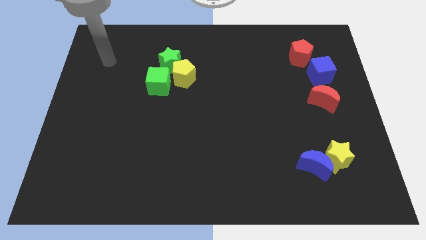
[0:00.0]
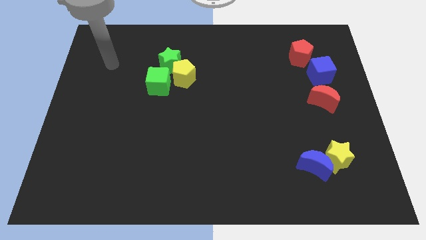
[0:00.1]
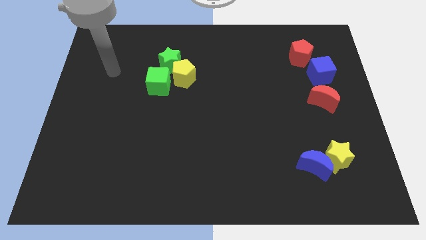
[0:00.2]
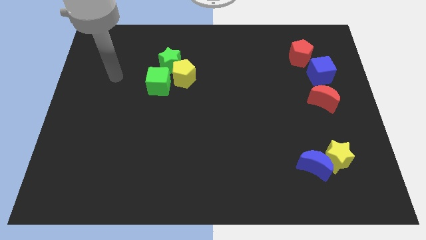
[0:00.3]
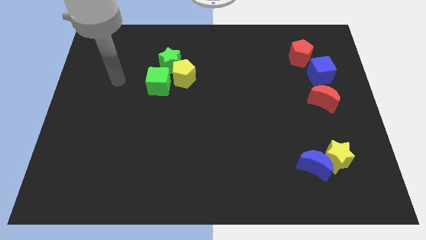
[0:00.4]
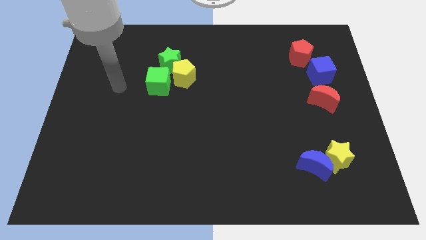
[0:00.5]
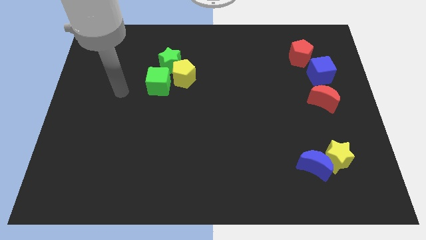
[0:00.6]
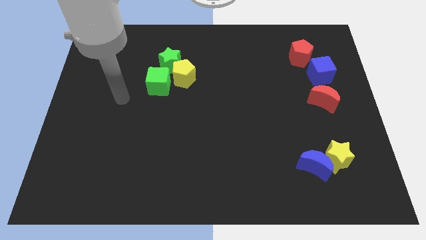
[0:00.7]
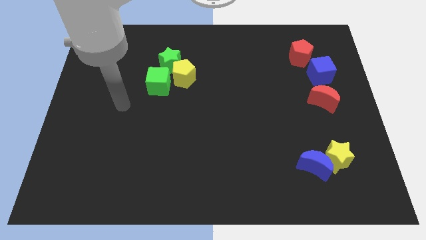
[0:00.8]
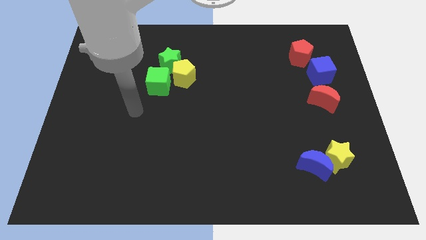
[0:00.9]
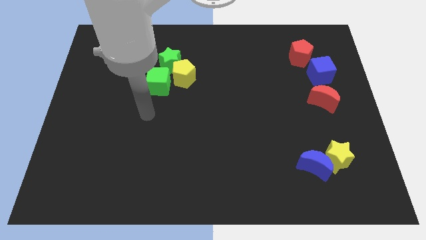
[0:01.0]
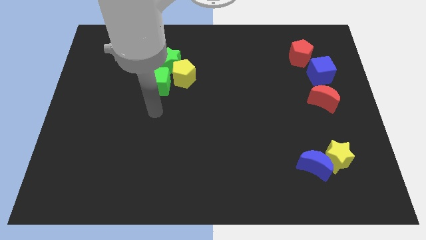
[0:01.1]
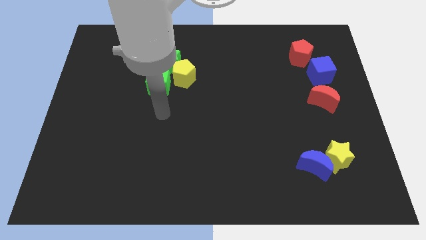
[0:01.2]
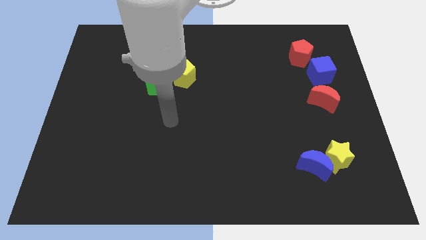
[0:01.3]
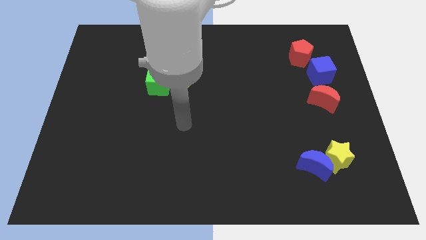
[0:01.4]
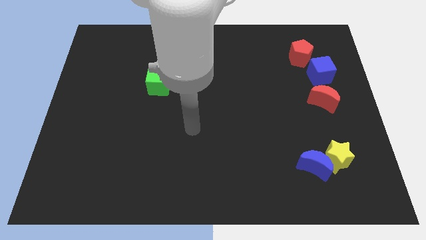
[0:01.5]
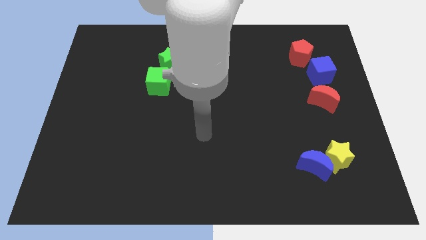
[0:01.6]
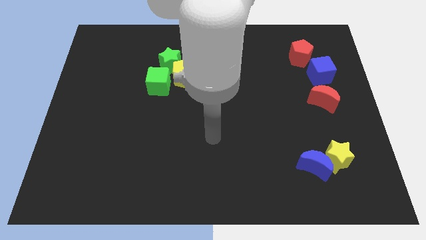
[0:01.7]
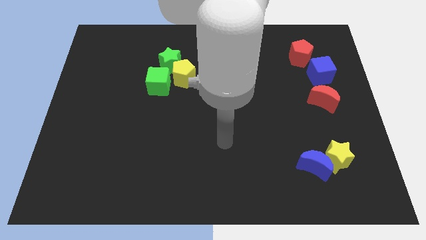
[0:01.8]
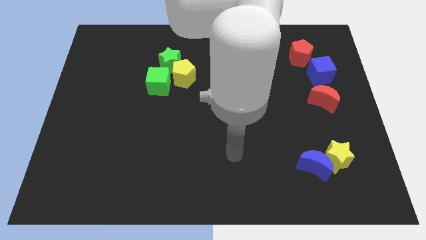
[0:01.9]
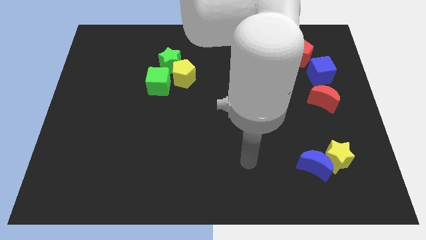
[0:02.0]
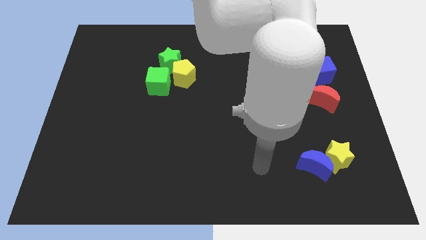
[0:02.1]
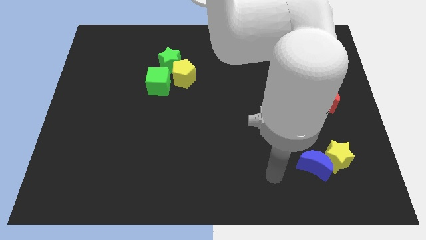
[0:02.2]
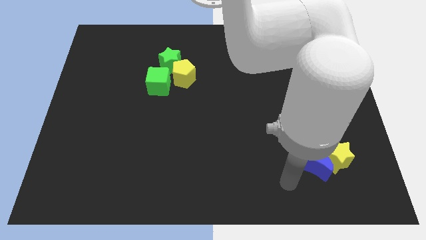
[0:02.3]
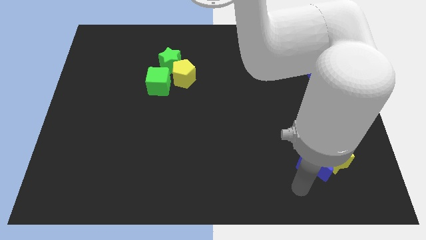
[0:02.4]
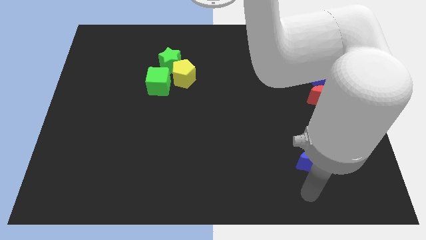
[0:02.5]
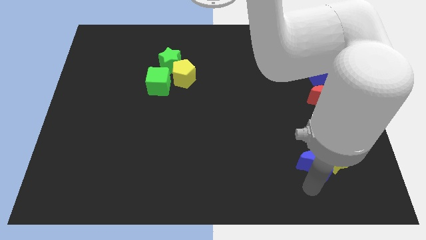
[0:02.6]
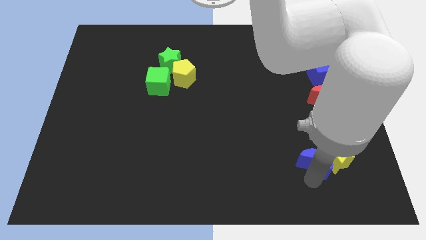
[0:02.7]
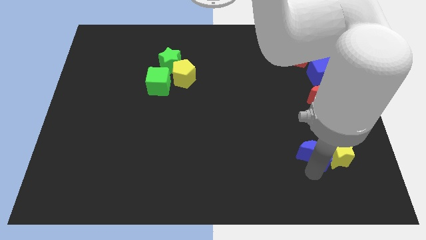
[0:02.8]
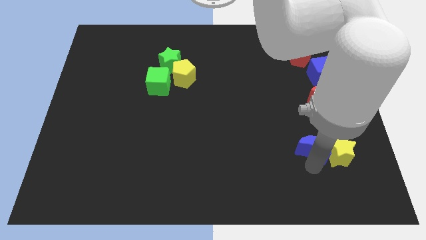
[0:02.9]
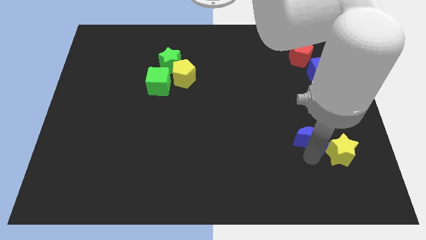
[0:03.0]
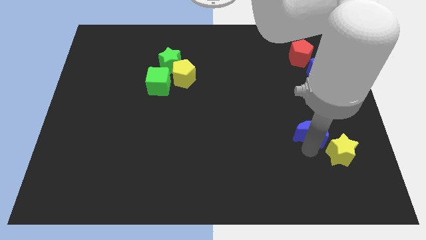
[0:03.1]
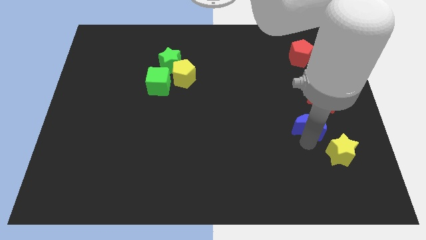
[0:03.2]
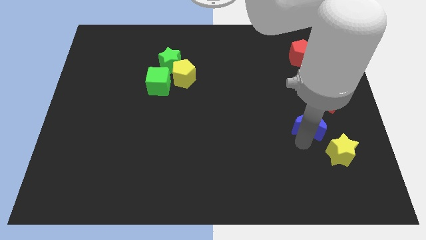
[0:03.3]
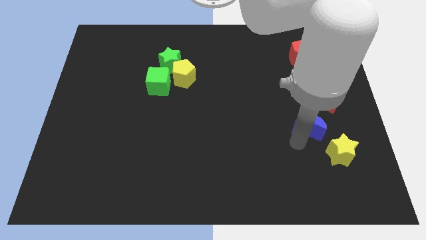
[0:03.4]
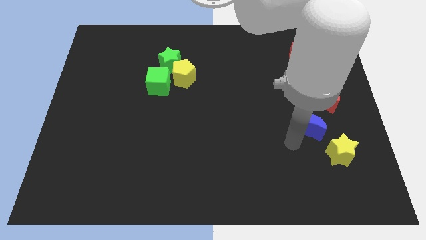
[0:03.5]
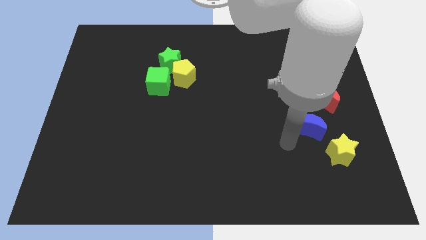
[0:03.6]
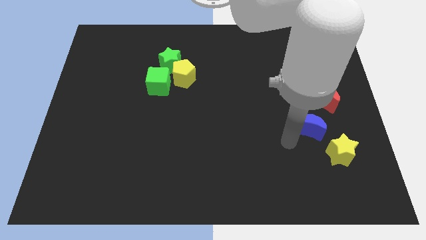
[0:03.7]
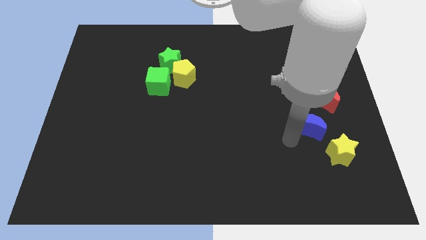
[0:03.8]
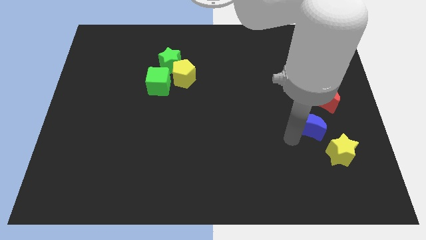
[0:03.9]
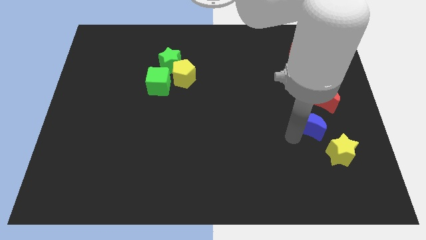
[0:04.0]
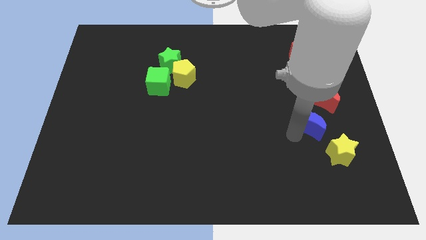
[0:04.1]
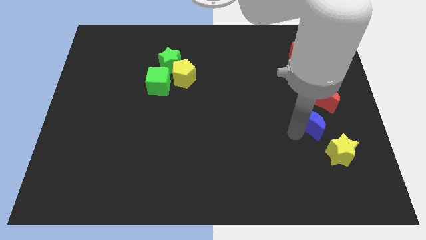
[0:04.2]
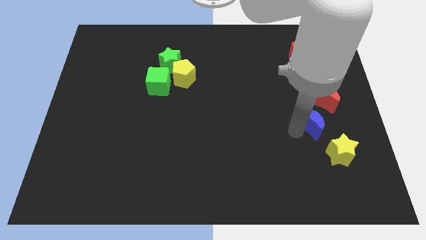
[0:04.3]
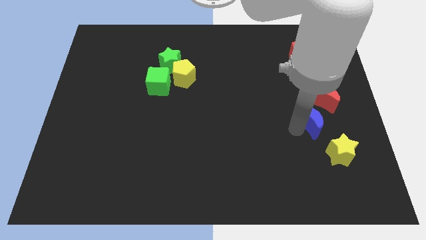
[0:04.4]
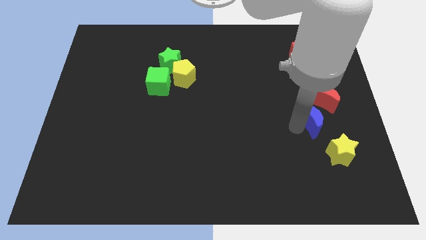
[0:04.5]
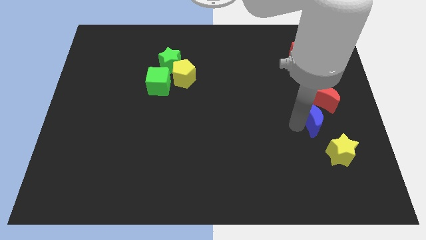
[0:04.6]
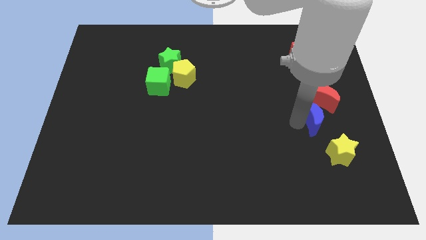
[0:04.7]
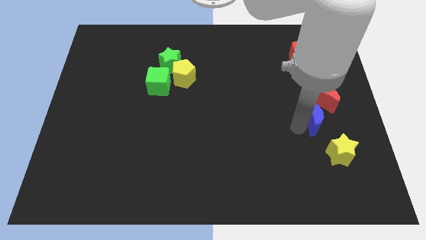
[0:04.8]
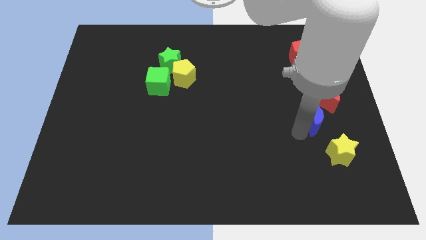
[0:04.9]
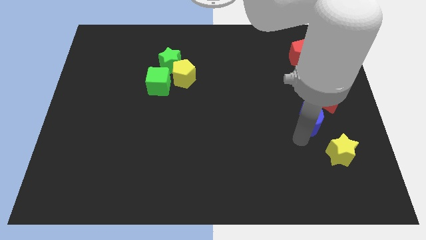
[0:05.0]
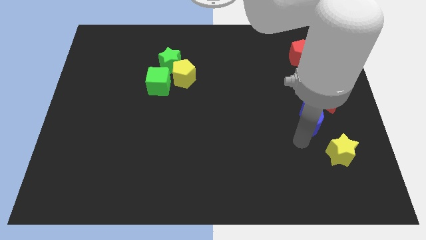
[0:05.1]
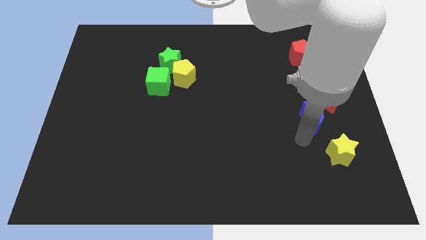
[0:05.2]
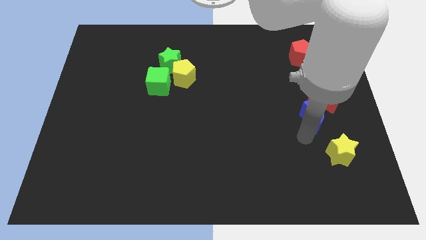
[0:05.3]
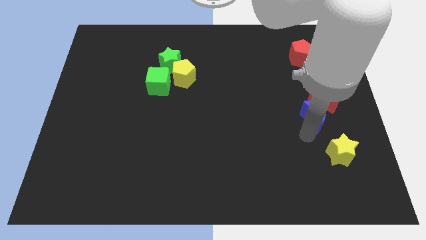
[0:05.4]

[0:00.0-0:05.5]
push the blue moon next to the red moon

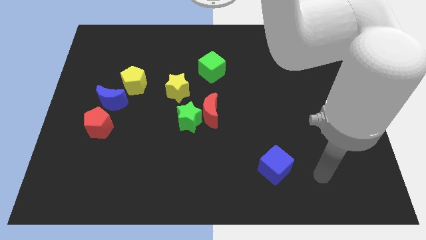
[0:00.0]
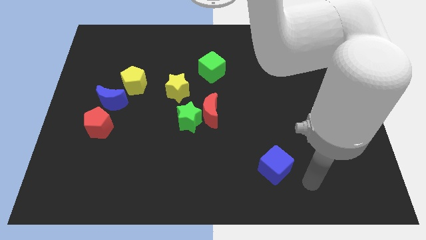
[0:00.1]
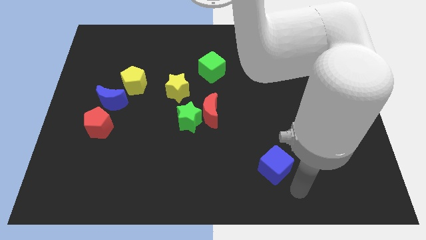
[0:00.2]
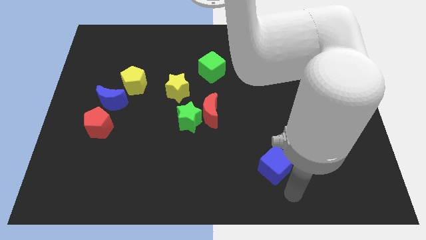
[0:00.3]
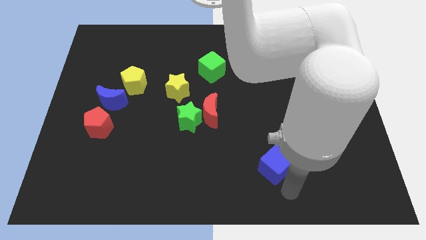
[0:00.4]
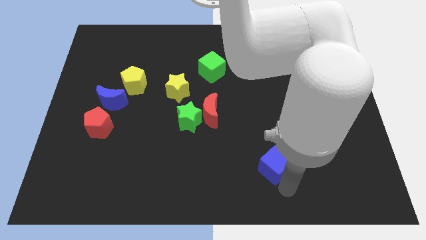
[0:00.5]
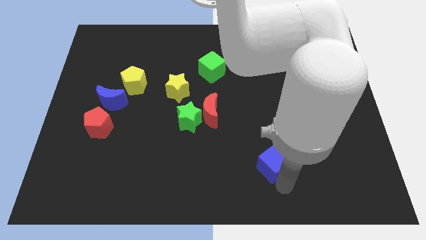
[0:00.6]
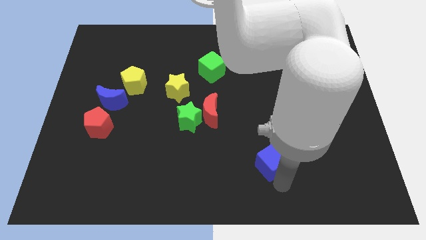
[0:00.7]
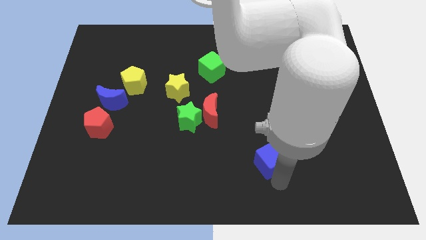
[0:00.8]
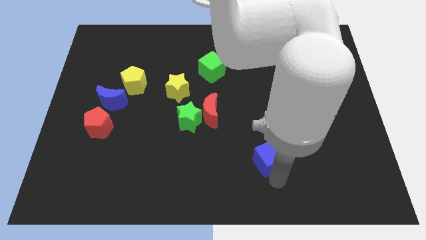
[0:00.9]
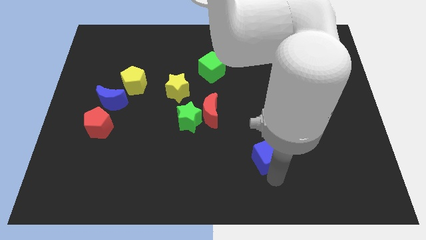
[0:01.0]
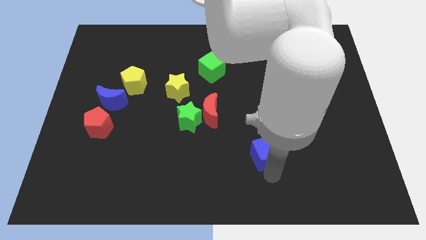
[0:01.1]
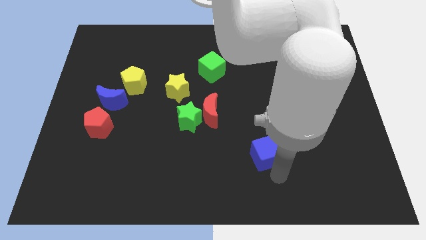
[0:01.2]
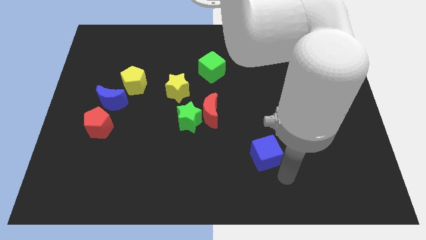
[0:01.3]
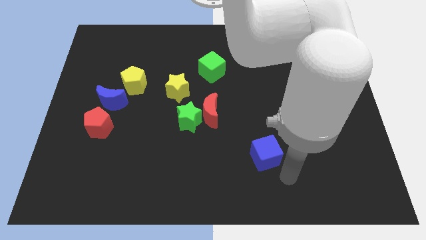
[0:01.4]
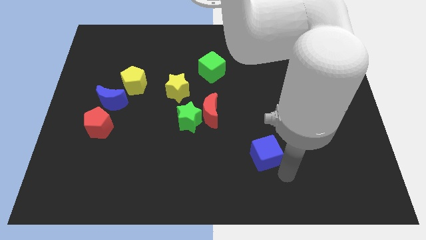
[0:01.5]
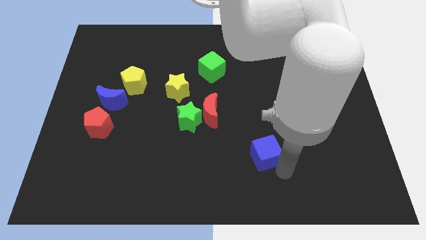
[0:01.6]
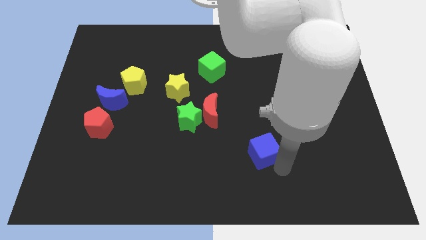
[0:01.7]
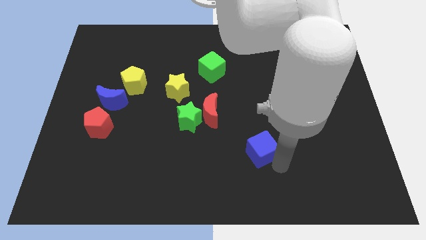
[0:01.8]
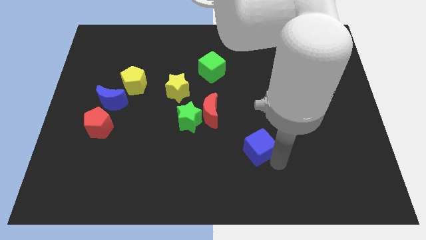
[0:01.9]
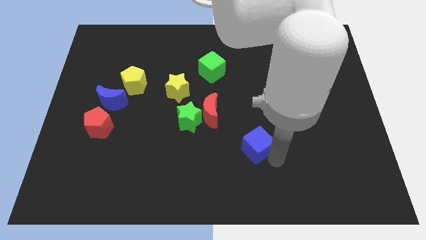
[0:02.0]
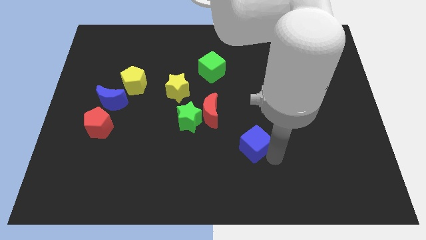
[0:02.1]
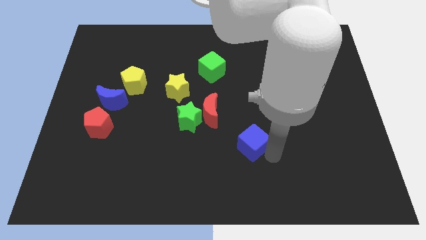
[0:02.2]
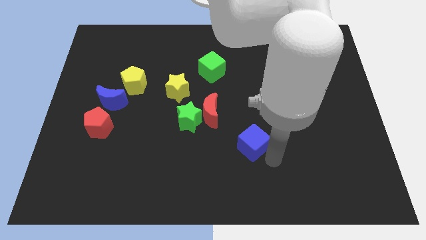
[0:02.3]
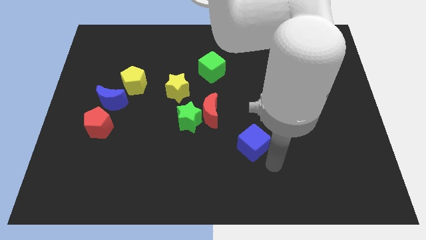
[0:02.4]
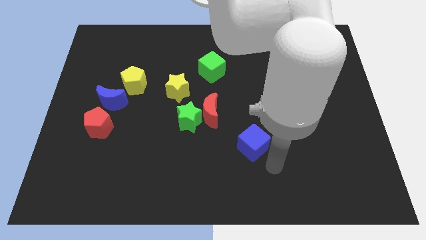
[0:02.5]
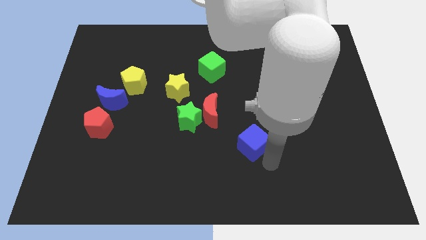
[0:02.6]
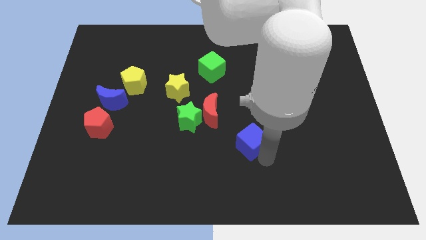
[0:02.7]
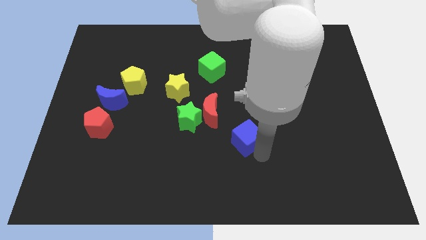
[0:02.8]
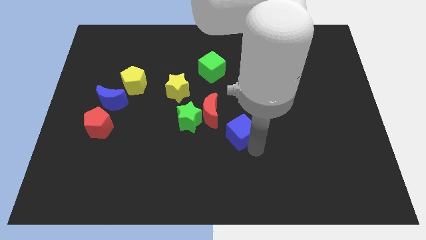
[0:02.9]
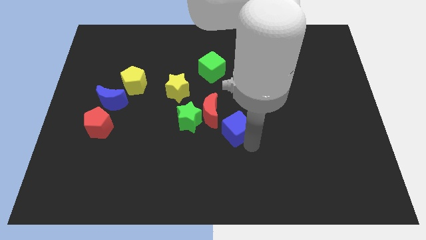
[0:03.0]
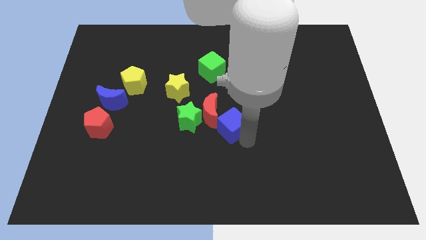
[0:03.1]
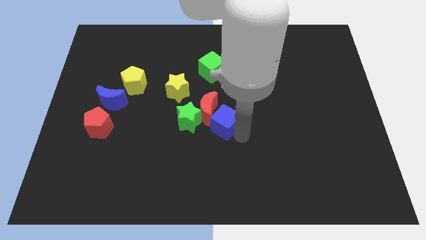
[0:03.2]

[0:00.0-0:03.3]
move the blue cube next to the red moon
